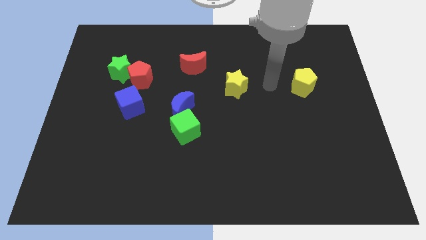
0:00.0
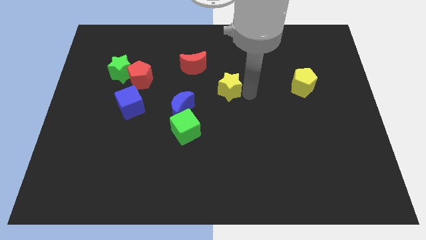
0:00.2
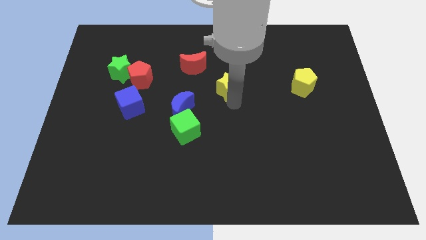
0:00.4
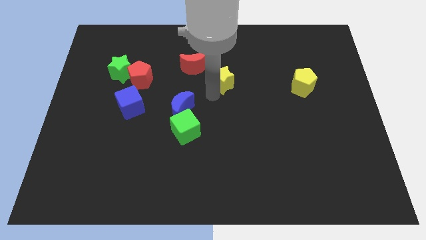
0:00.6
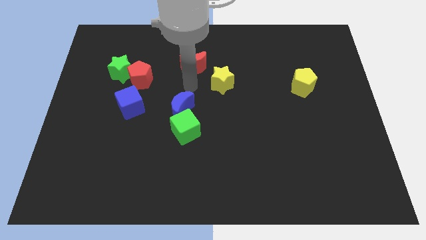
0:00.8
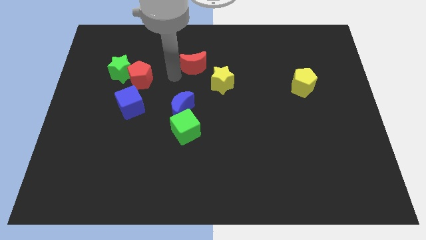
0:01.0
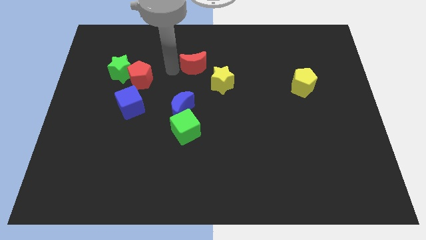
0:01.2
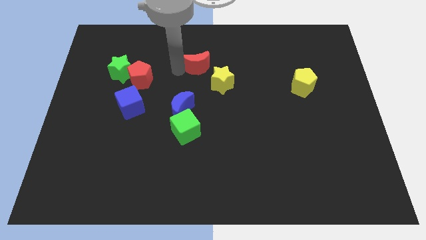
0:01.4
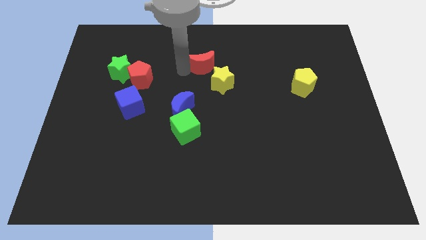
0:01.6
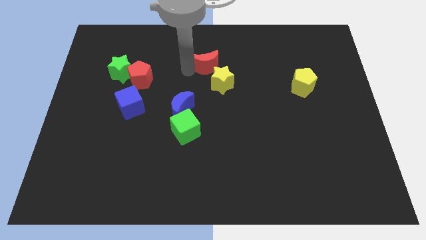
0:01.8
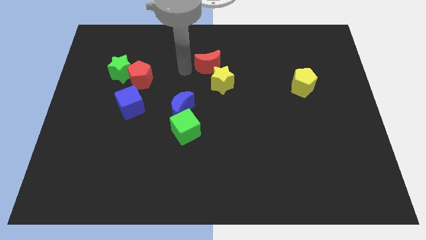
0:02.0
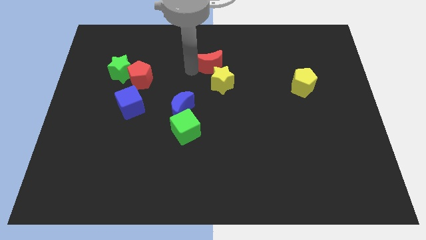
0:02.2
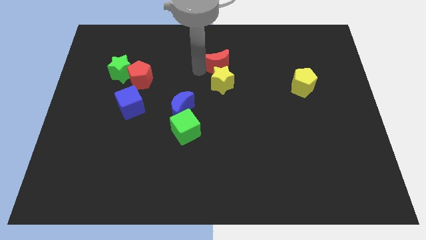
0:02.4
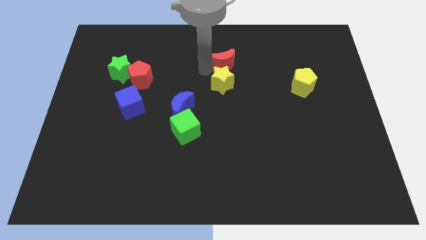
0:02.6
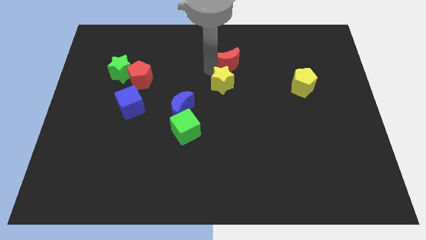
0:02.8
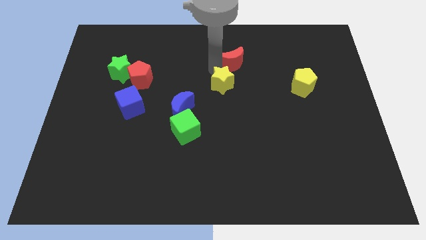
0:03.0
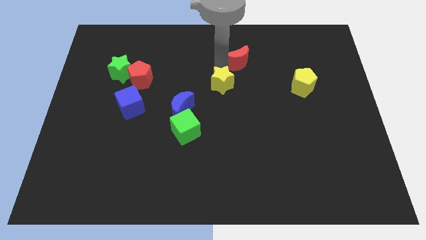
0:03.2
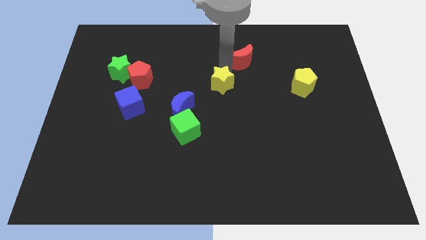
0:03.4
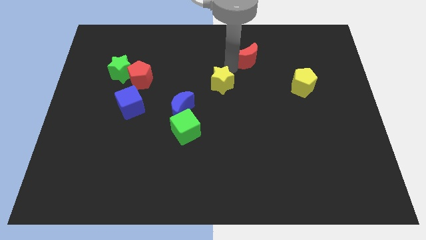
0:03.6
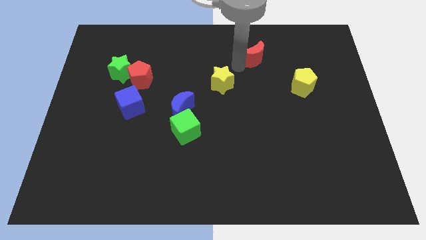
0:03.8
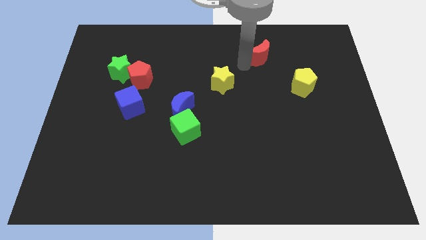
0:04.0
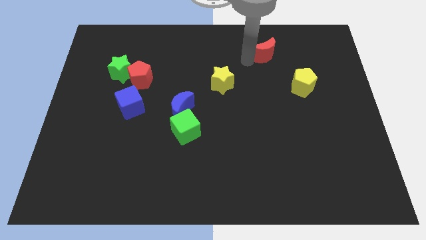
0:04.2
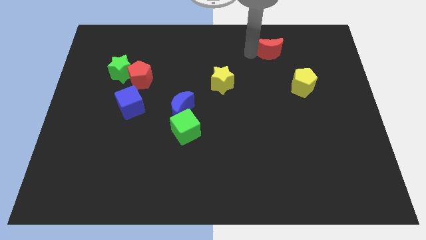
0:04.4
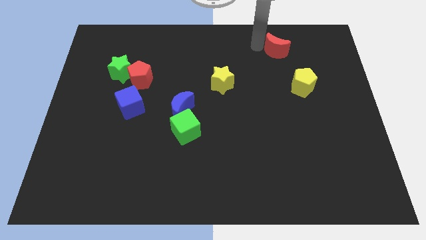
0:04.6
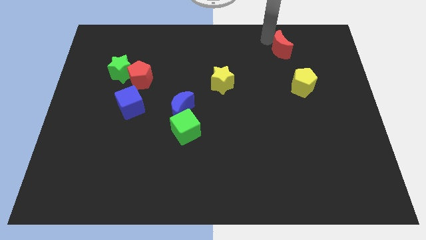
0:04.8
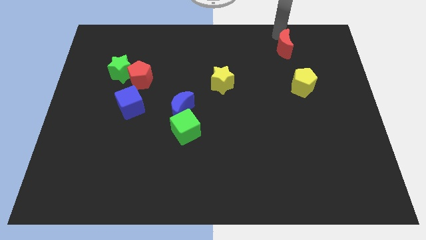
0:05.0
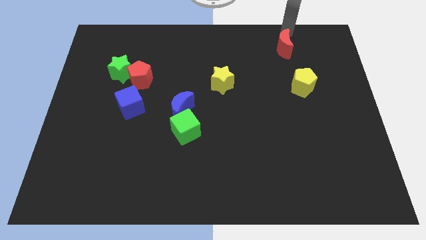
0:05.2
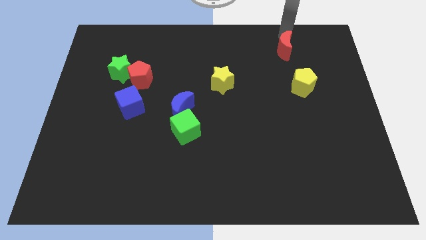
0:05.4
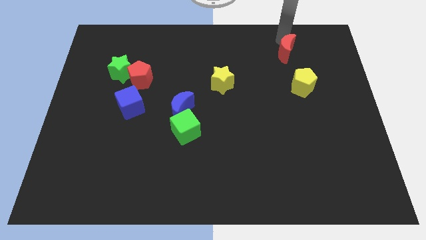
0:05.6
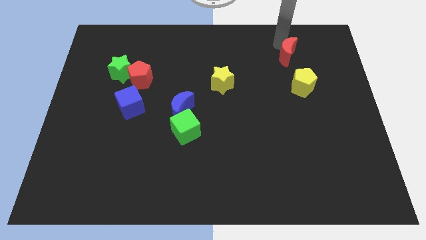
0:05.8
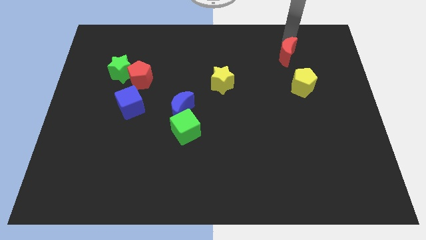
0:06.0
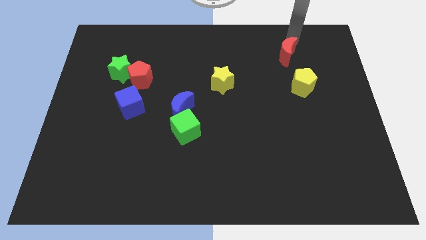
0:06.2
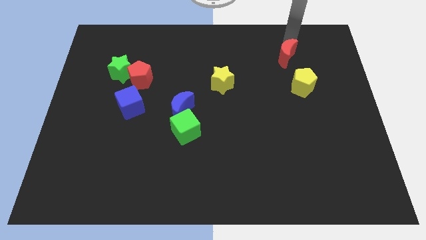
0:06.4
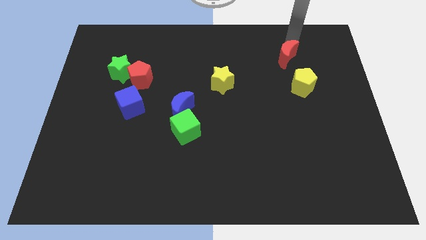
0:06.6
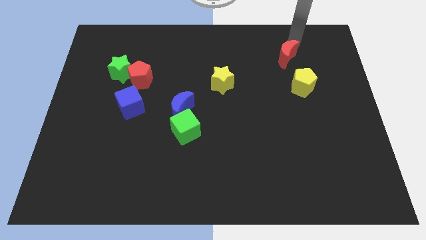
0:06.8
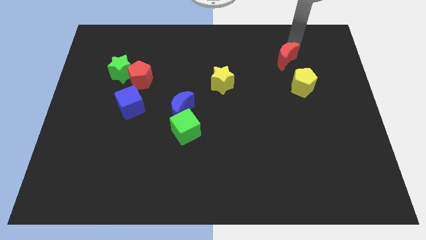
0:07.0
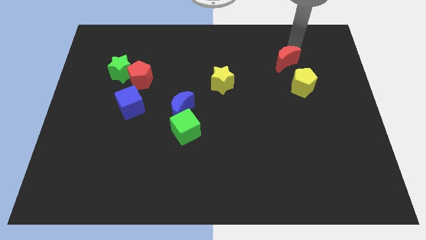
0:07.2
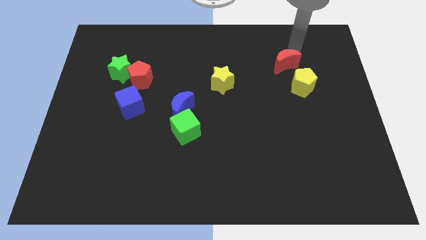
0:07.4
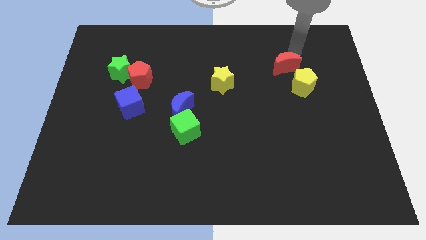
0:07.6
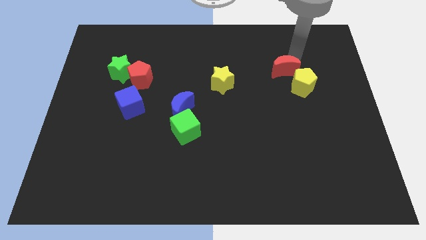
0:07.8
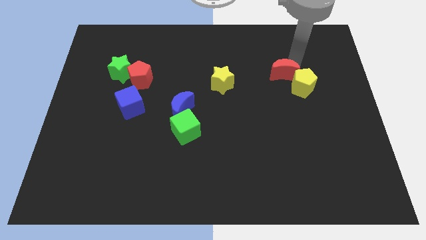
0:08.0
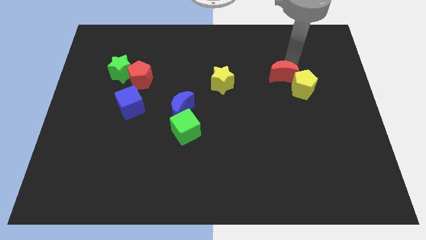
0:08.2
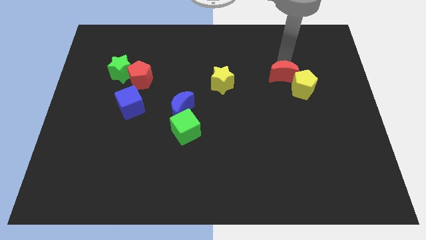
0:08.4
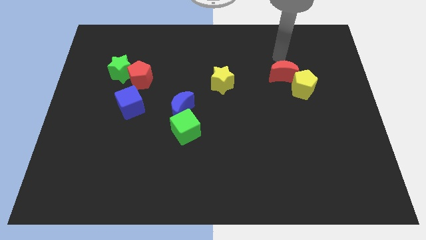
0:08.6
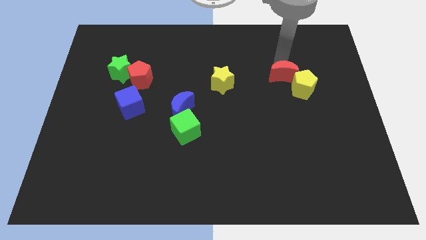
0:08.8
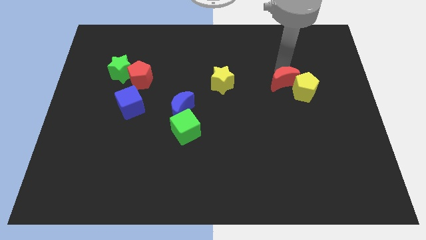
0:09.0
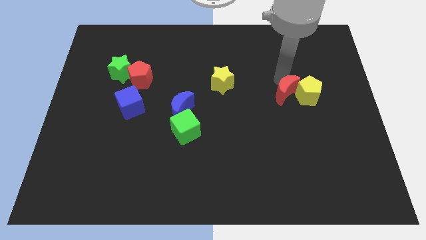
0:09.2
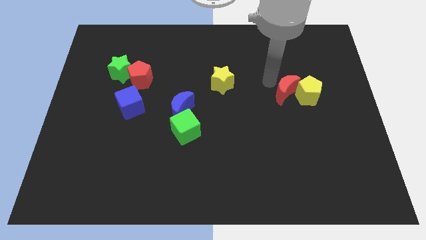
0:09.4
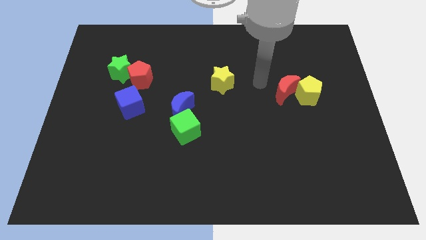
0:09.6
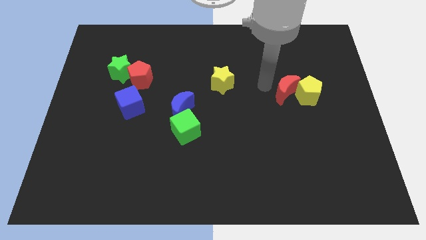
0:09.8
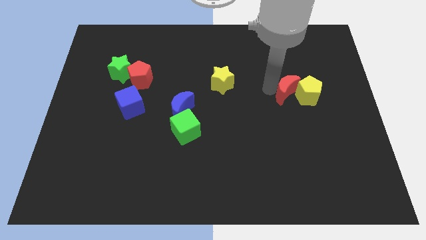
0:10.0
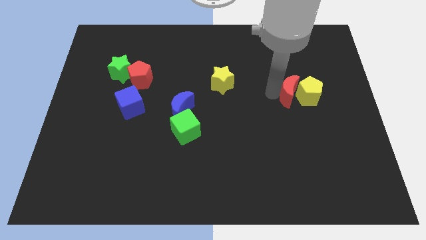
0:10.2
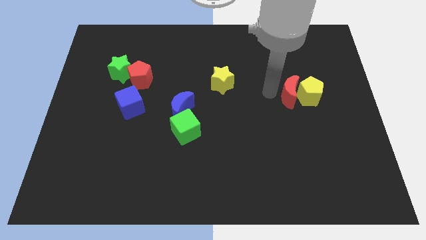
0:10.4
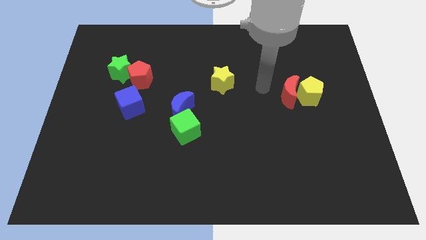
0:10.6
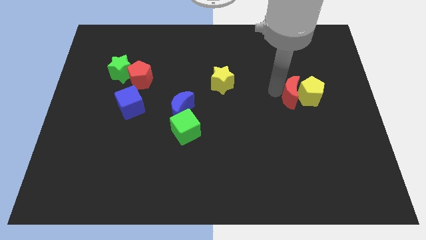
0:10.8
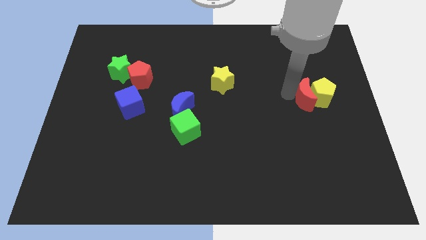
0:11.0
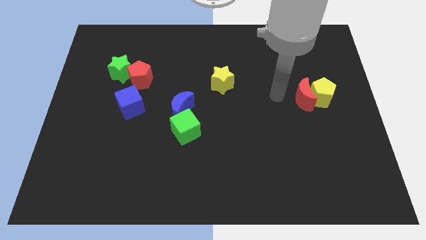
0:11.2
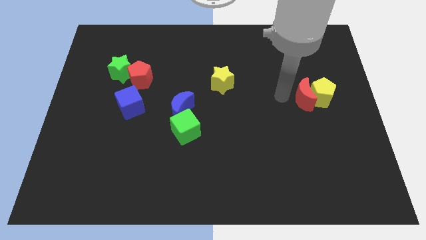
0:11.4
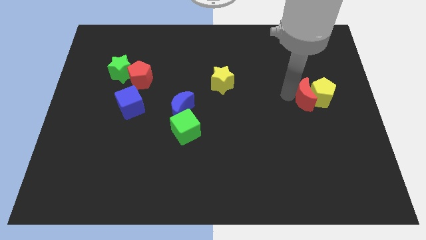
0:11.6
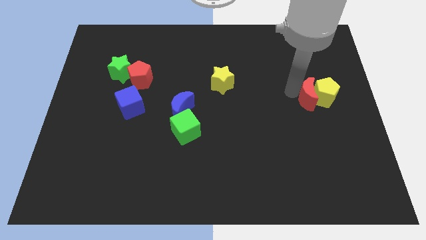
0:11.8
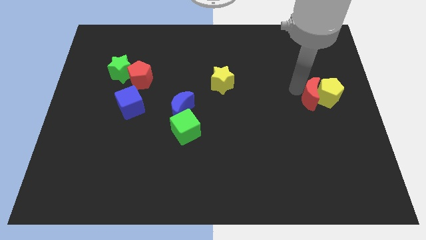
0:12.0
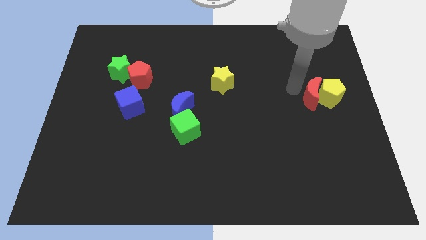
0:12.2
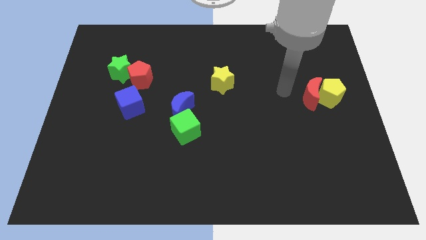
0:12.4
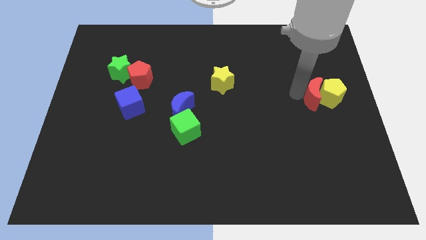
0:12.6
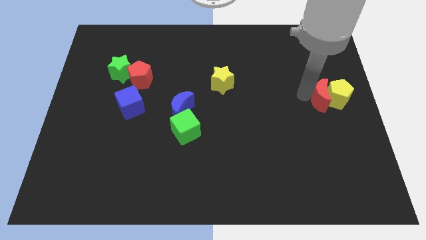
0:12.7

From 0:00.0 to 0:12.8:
put the red moon to the right side of the board
